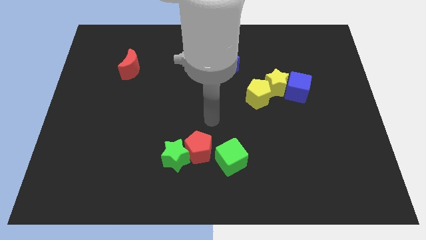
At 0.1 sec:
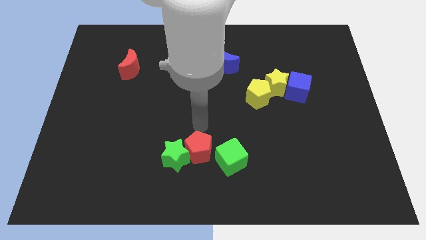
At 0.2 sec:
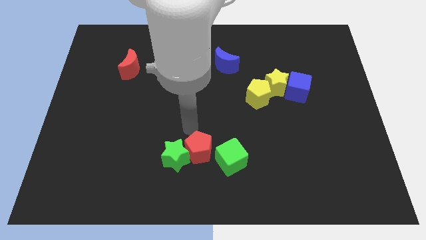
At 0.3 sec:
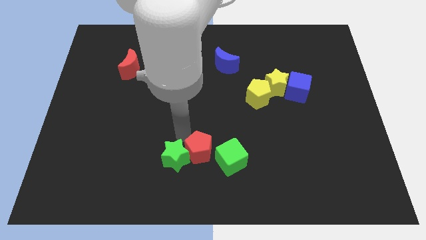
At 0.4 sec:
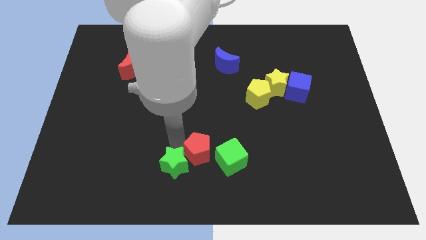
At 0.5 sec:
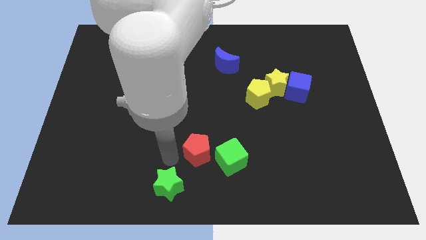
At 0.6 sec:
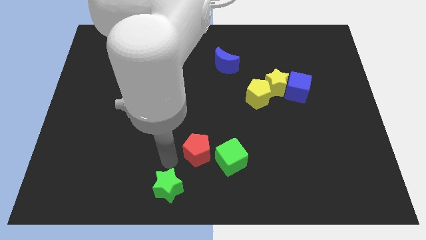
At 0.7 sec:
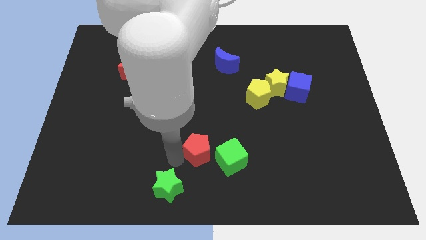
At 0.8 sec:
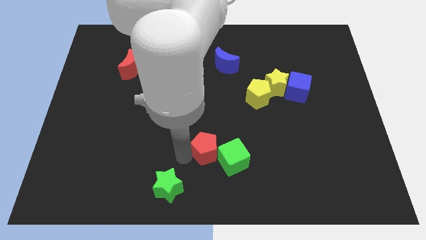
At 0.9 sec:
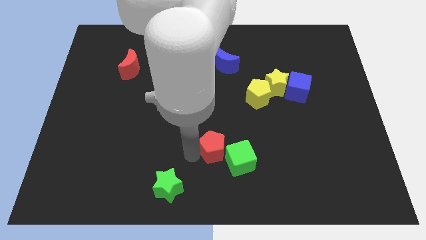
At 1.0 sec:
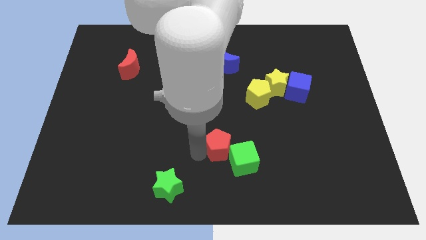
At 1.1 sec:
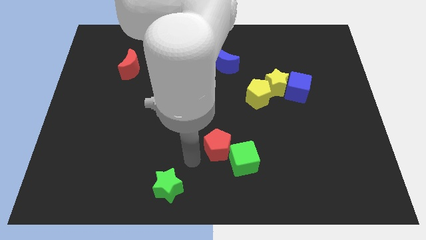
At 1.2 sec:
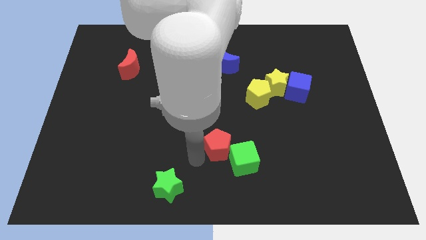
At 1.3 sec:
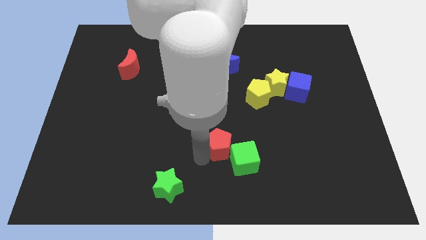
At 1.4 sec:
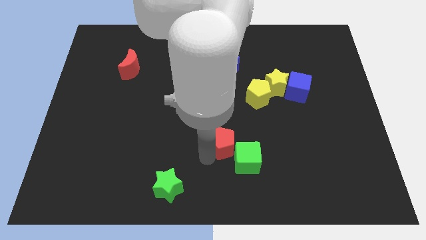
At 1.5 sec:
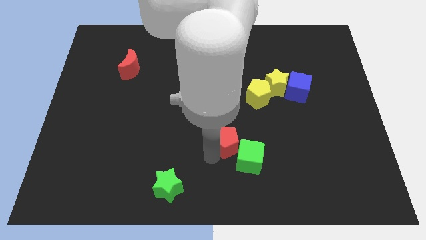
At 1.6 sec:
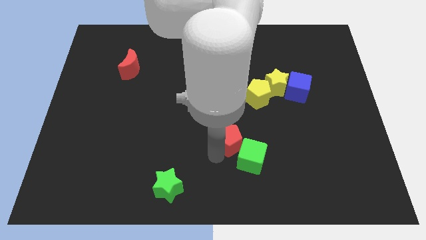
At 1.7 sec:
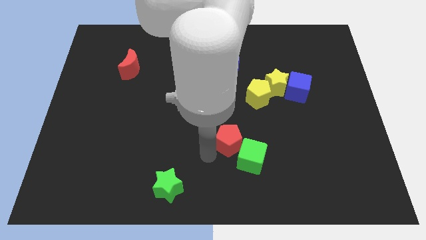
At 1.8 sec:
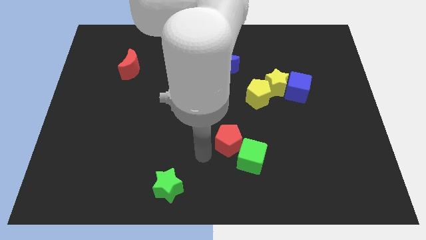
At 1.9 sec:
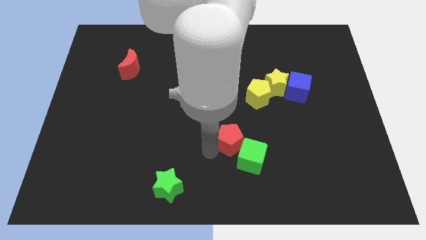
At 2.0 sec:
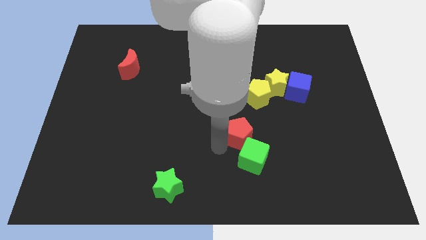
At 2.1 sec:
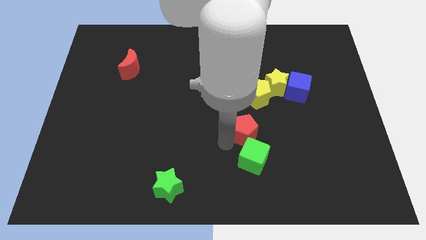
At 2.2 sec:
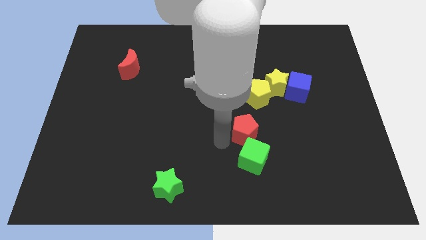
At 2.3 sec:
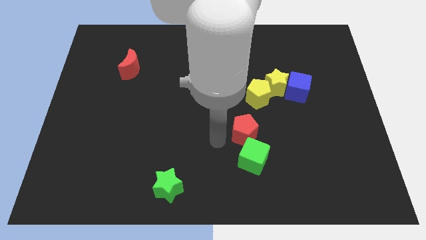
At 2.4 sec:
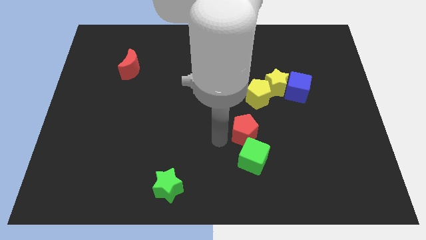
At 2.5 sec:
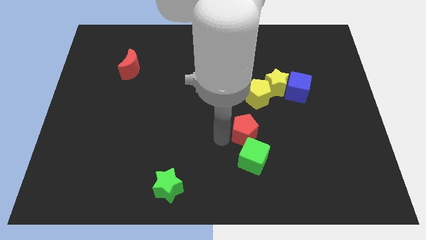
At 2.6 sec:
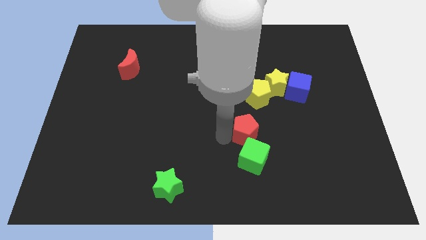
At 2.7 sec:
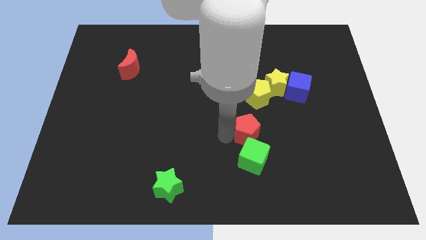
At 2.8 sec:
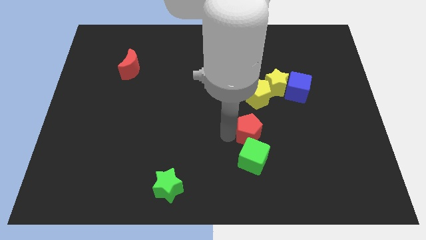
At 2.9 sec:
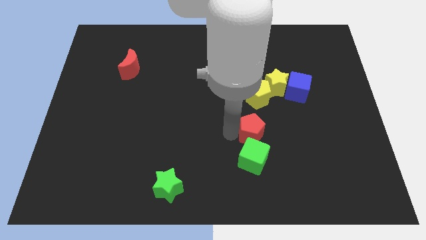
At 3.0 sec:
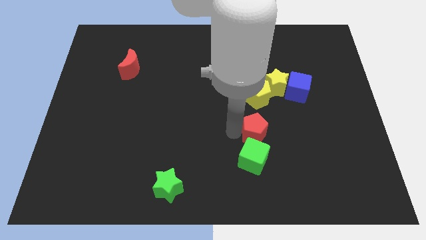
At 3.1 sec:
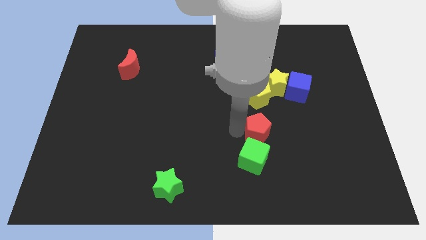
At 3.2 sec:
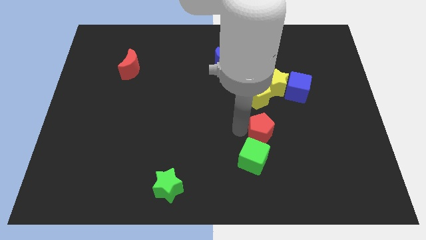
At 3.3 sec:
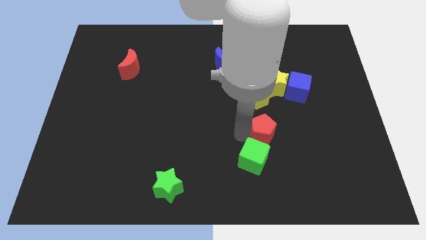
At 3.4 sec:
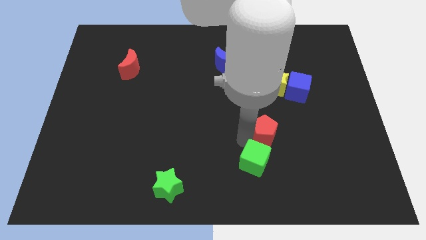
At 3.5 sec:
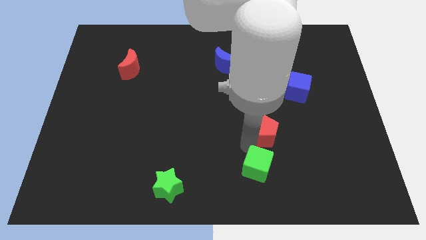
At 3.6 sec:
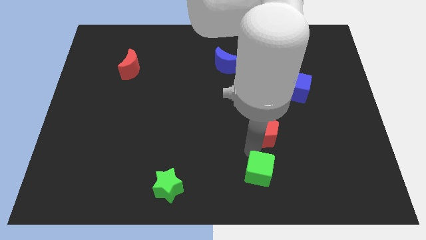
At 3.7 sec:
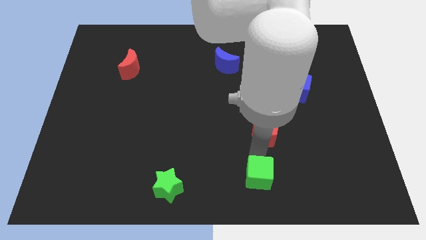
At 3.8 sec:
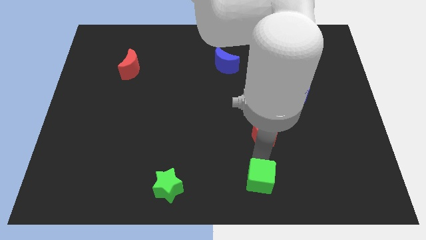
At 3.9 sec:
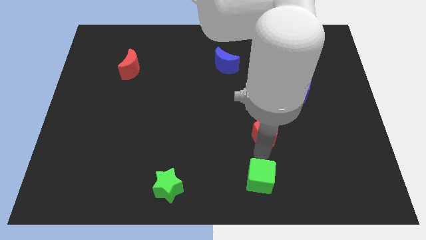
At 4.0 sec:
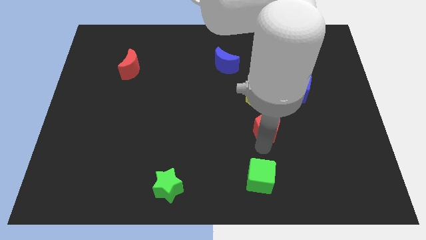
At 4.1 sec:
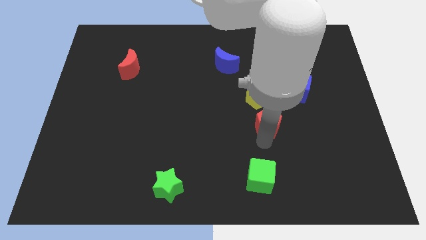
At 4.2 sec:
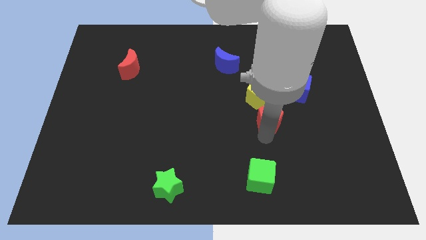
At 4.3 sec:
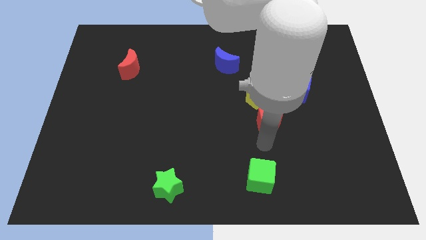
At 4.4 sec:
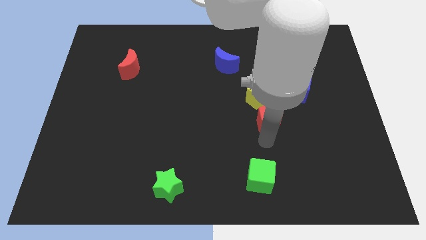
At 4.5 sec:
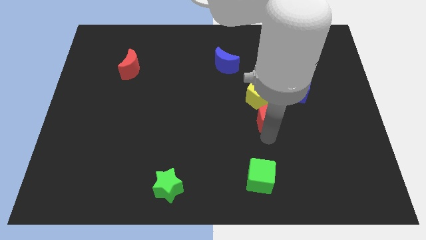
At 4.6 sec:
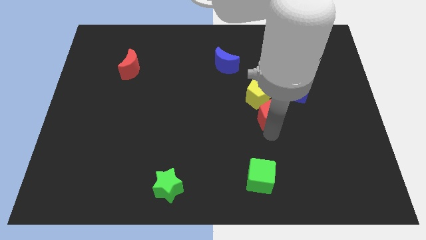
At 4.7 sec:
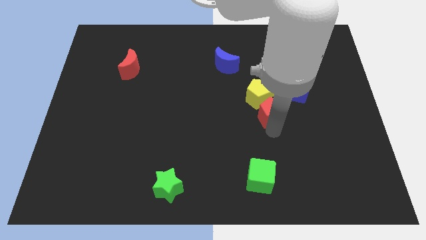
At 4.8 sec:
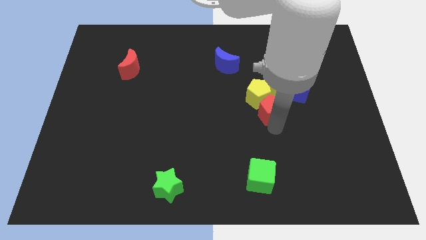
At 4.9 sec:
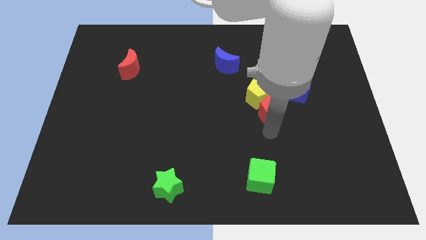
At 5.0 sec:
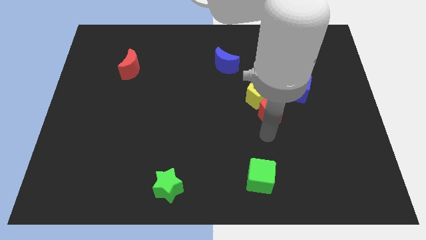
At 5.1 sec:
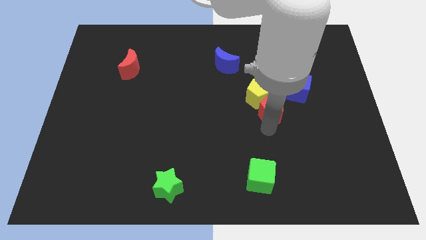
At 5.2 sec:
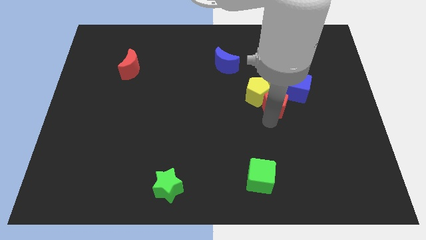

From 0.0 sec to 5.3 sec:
slide the red pentagon next to the yellow star

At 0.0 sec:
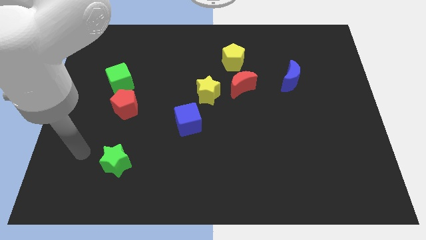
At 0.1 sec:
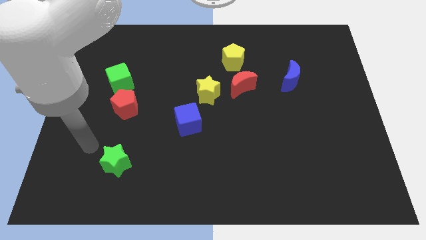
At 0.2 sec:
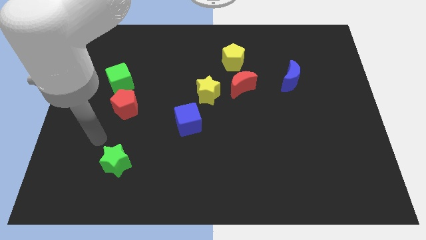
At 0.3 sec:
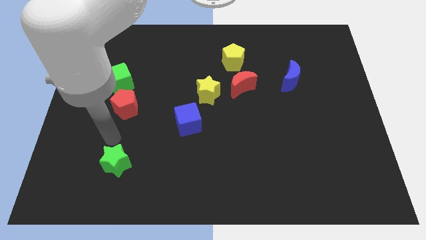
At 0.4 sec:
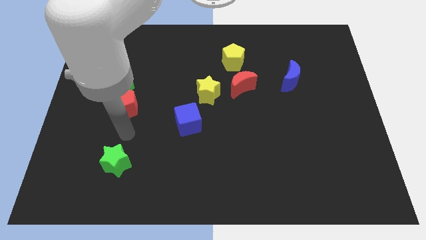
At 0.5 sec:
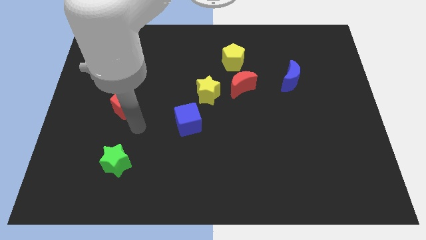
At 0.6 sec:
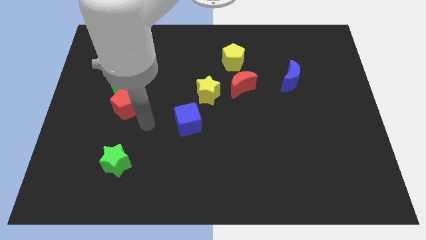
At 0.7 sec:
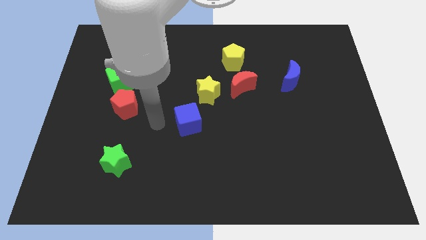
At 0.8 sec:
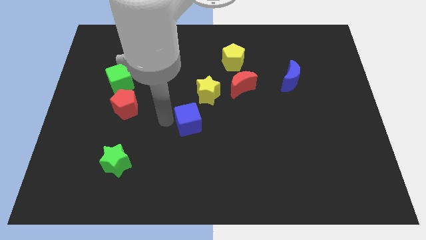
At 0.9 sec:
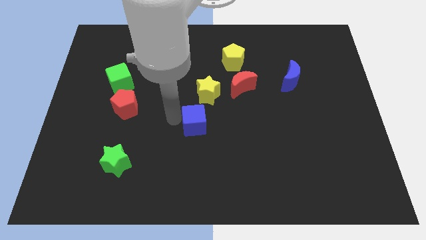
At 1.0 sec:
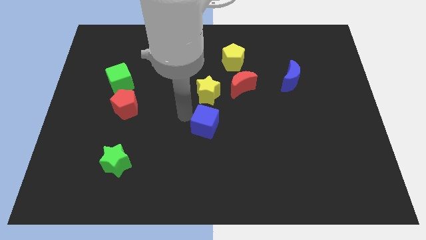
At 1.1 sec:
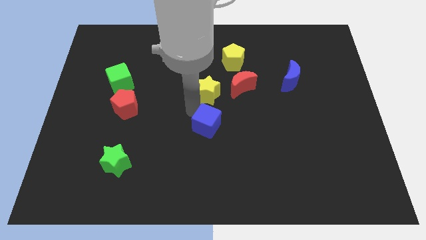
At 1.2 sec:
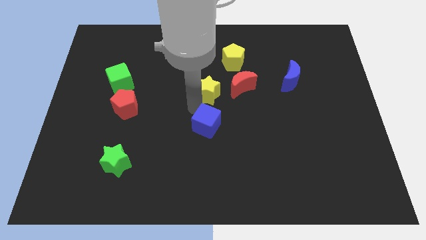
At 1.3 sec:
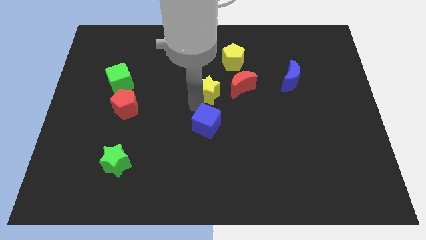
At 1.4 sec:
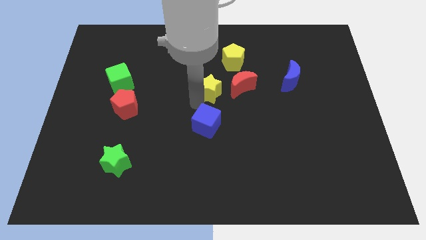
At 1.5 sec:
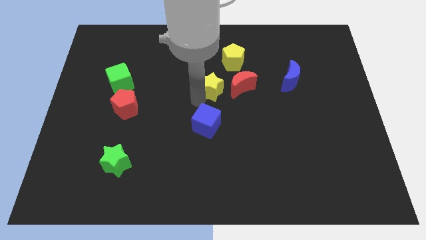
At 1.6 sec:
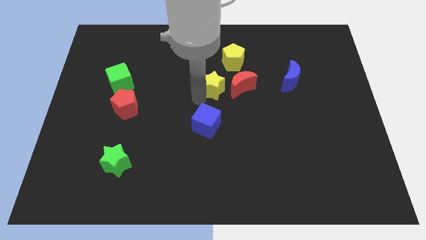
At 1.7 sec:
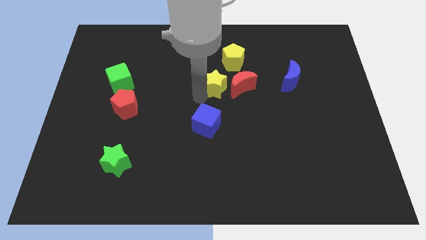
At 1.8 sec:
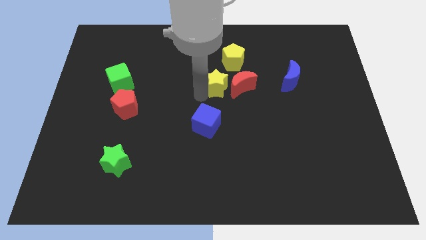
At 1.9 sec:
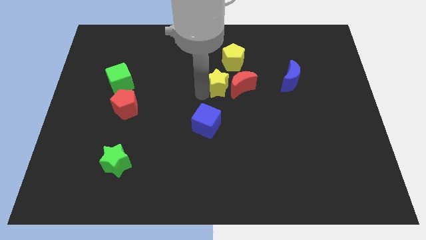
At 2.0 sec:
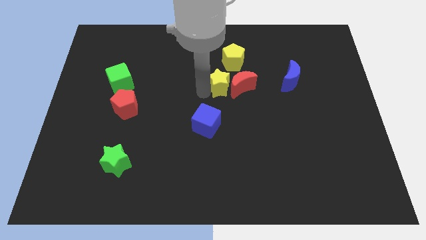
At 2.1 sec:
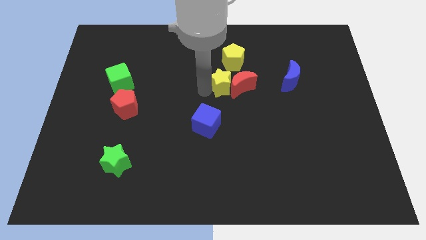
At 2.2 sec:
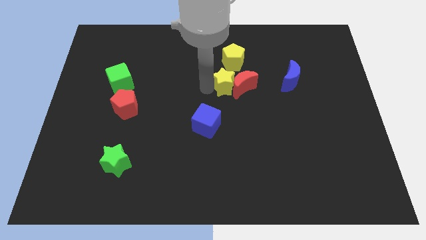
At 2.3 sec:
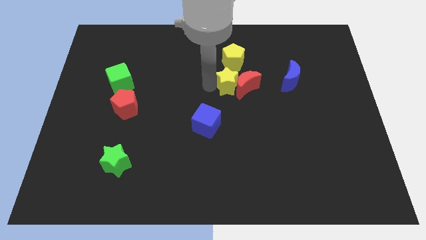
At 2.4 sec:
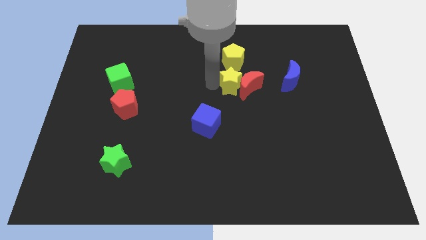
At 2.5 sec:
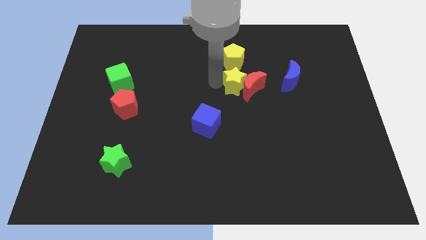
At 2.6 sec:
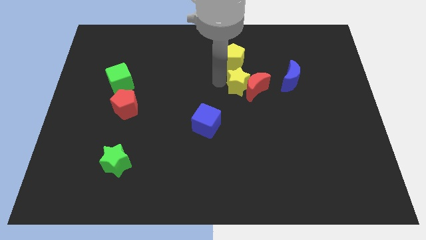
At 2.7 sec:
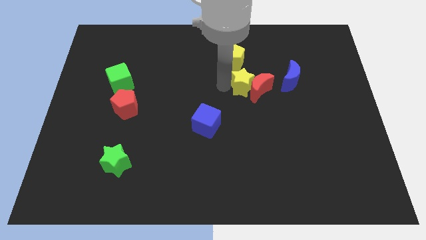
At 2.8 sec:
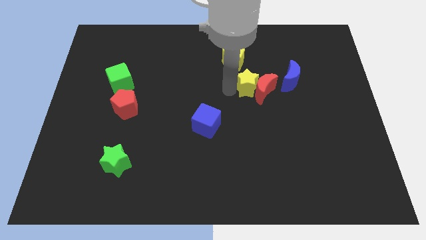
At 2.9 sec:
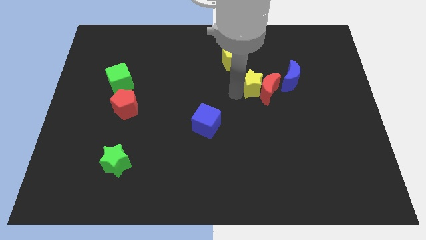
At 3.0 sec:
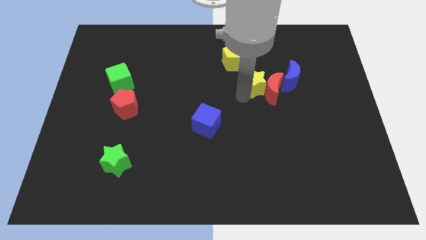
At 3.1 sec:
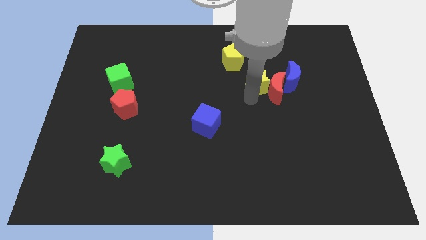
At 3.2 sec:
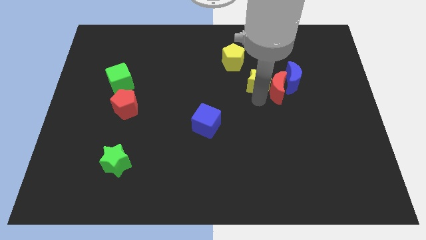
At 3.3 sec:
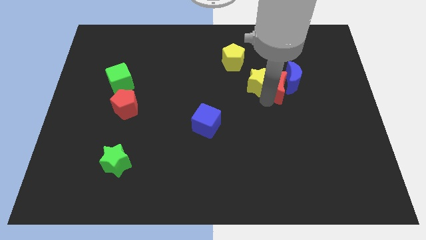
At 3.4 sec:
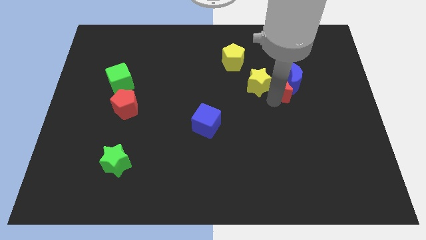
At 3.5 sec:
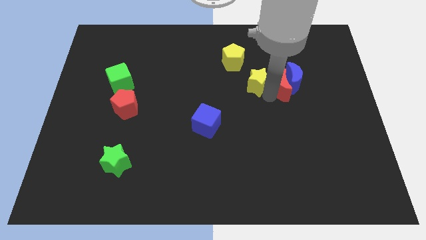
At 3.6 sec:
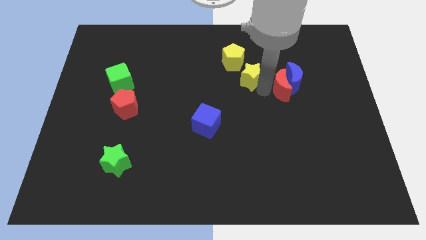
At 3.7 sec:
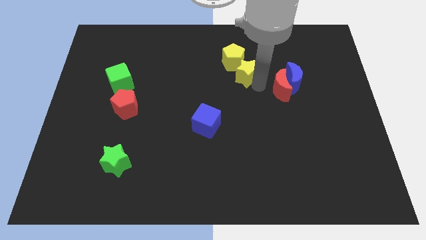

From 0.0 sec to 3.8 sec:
move the yellow star towards the yellow pentagon
